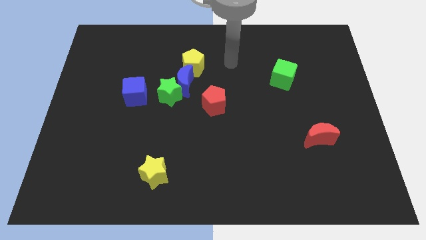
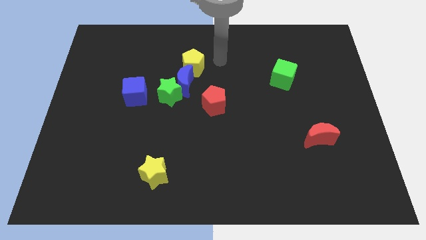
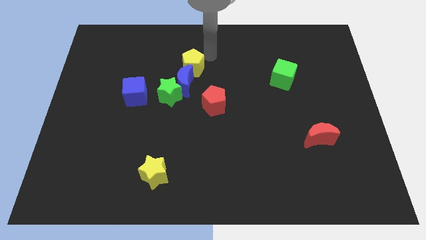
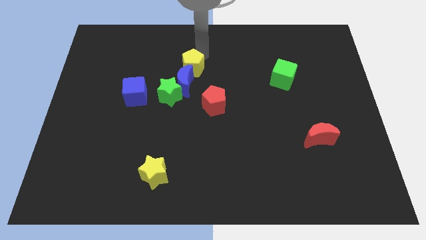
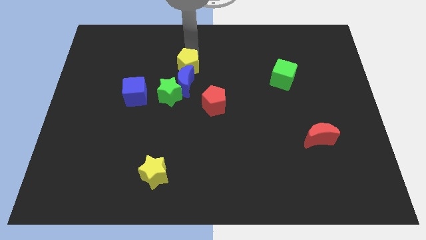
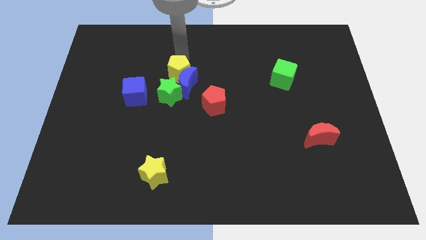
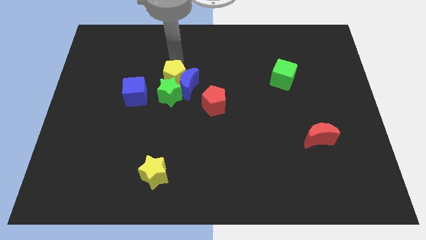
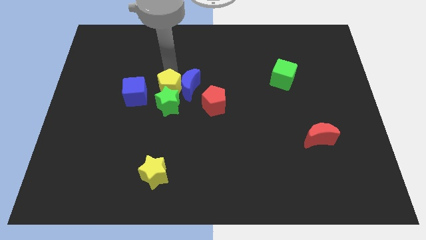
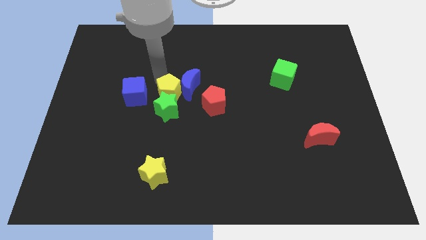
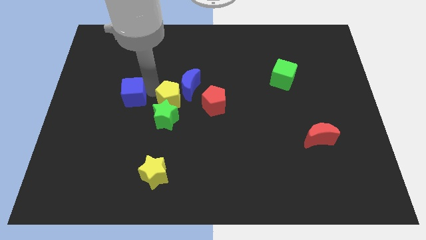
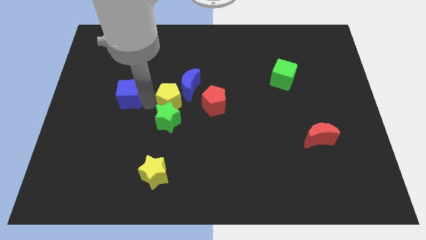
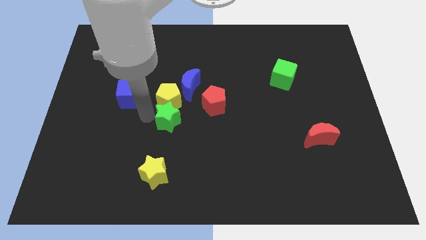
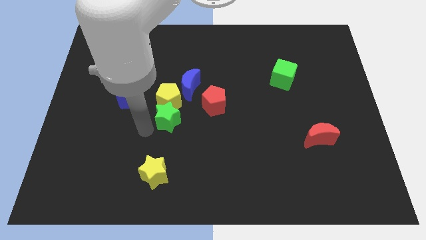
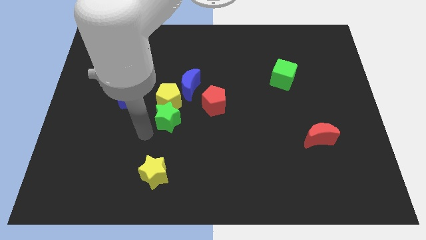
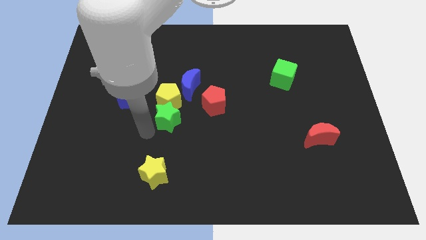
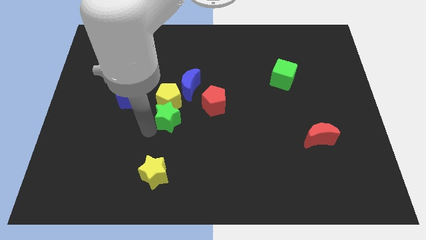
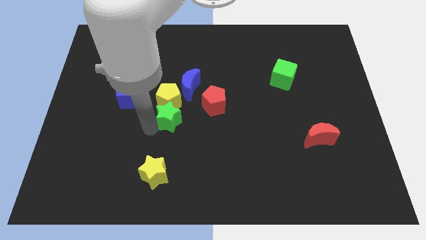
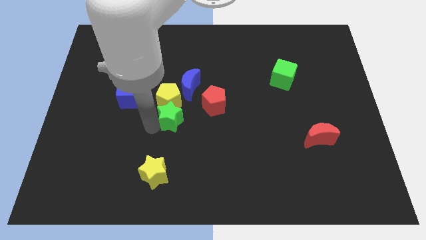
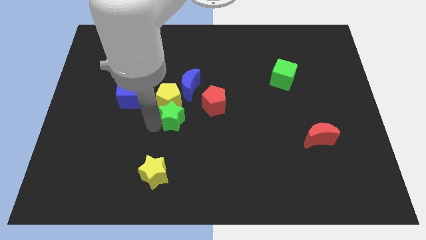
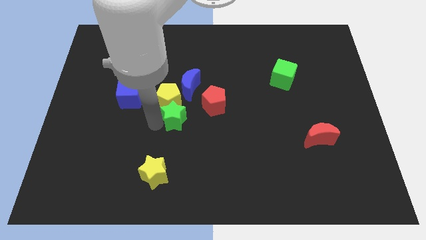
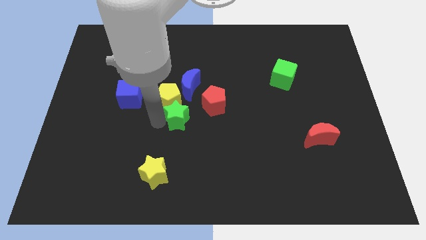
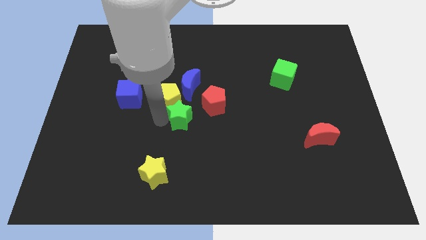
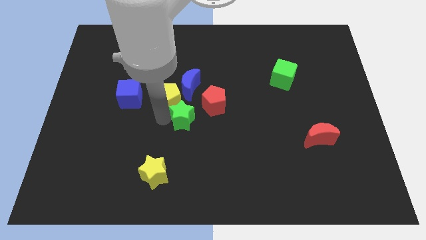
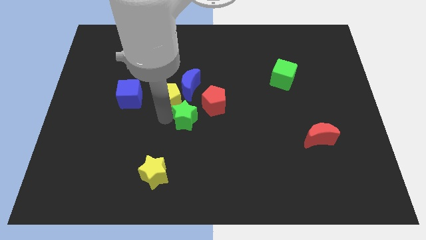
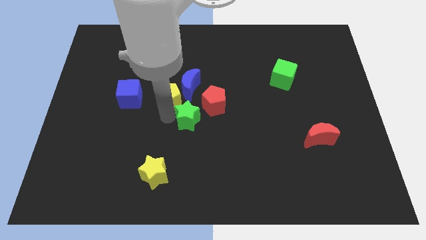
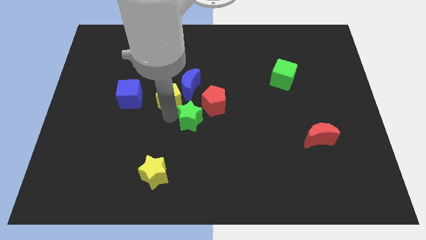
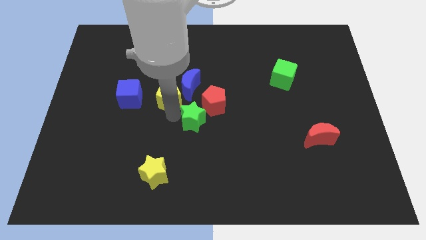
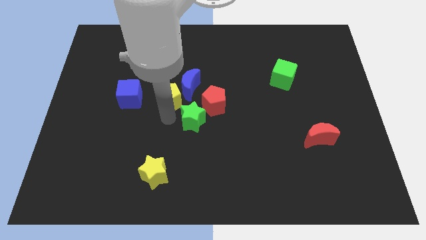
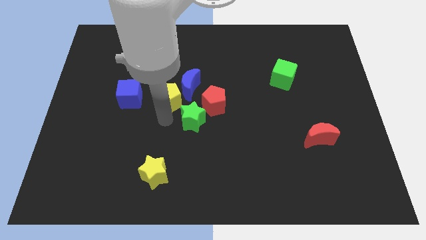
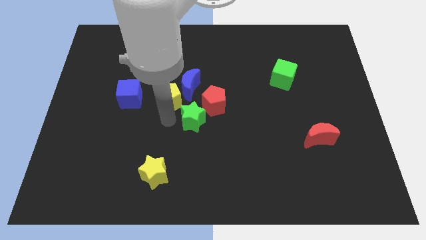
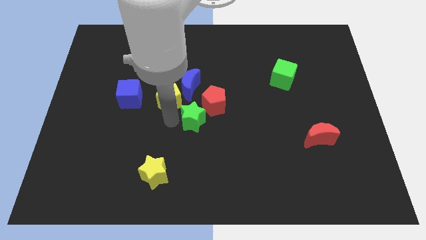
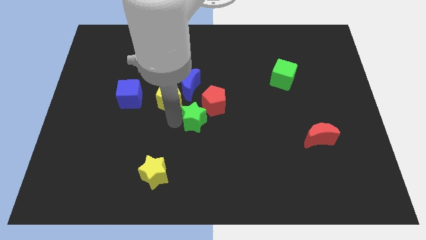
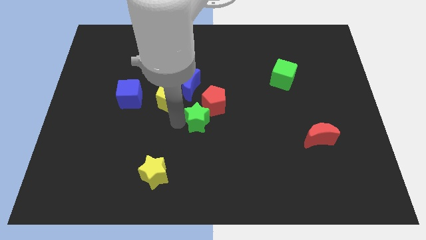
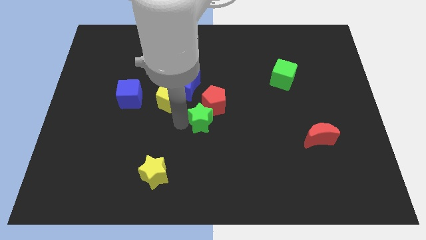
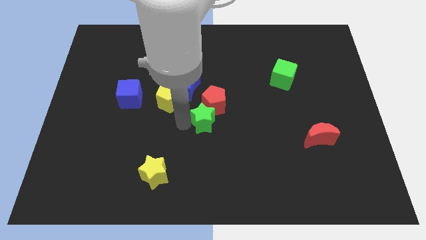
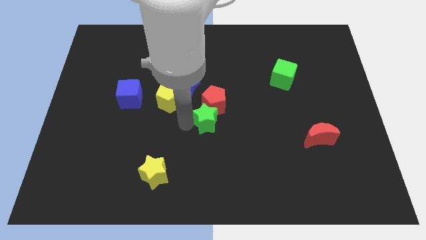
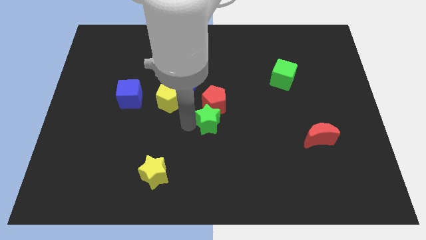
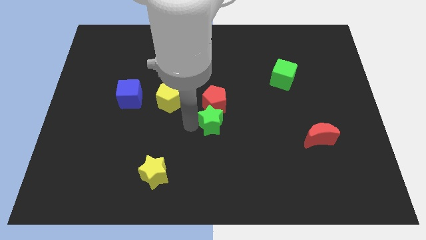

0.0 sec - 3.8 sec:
slightly push the green star right

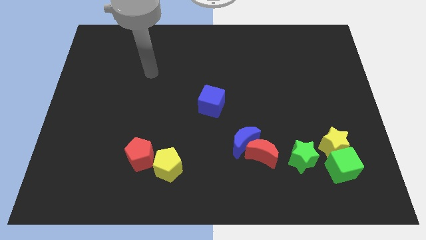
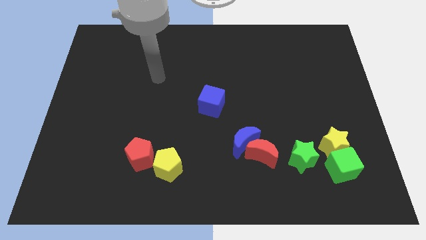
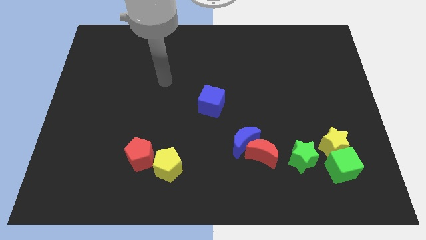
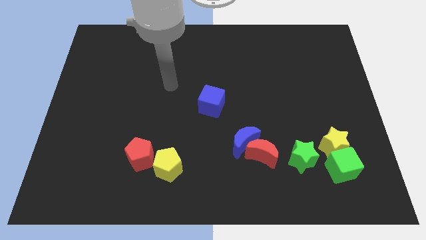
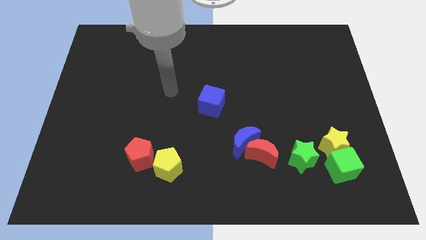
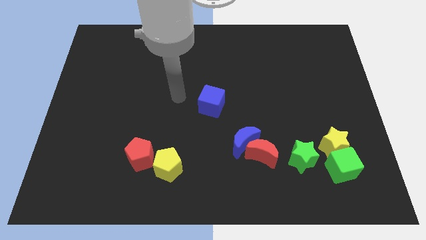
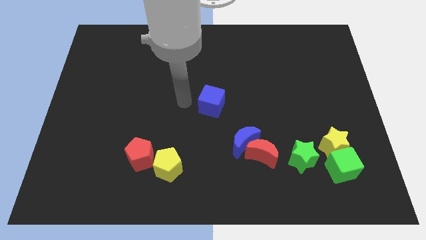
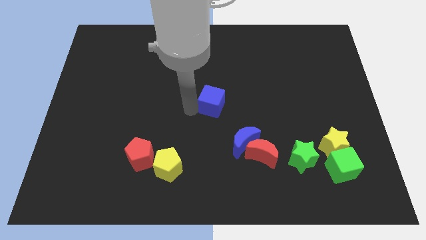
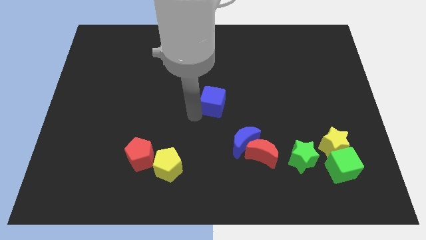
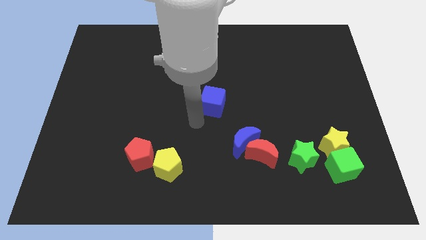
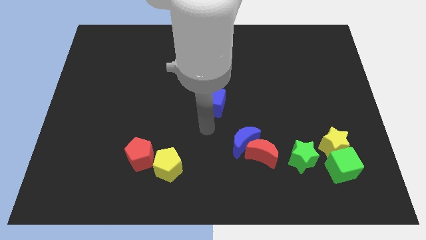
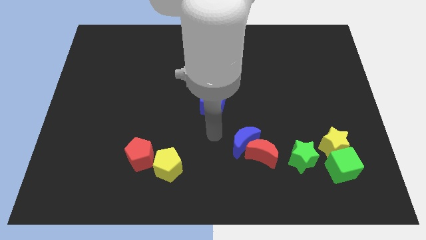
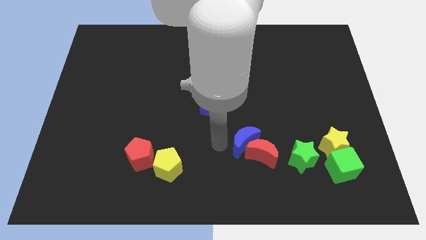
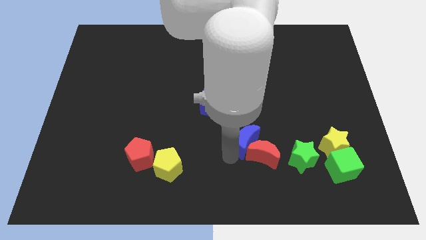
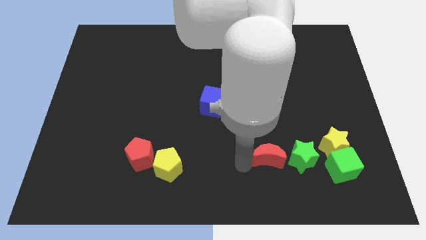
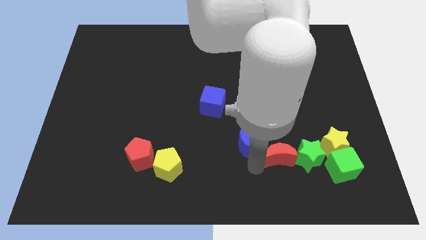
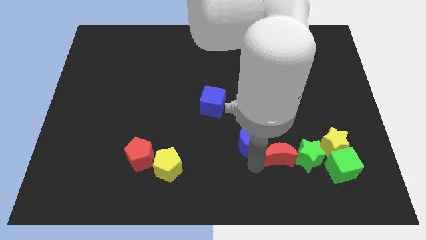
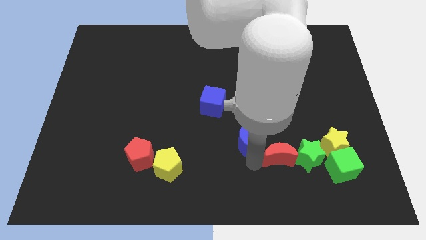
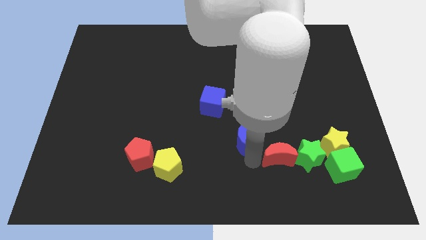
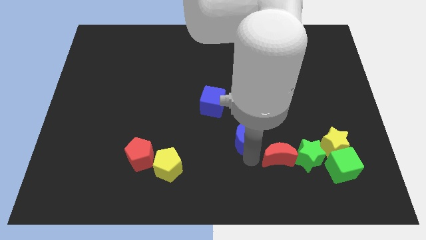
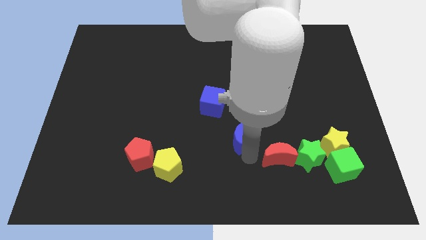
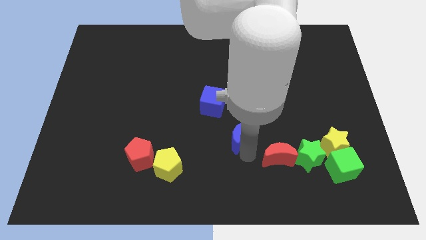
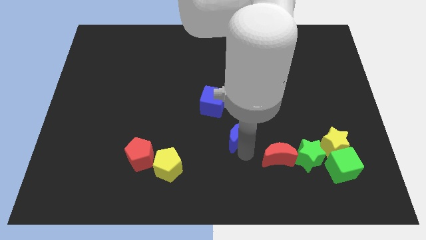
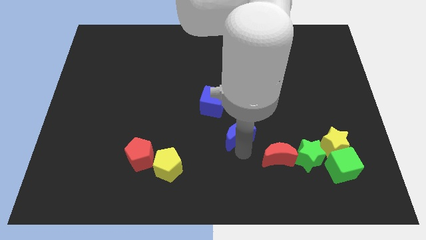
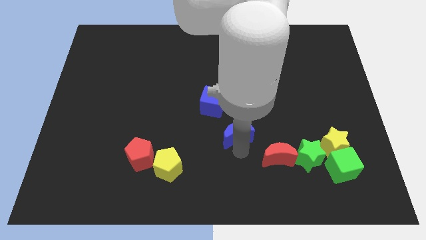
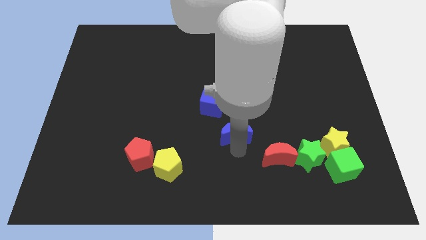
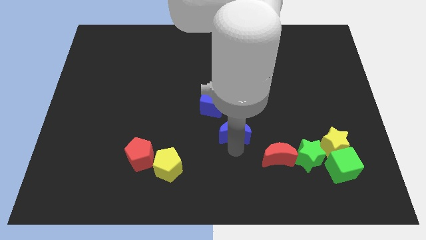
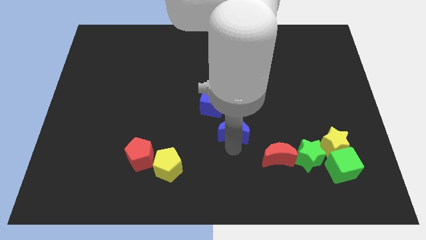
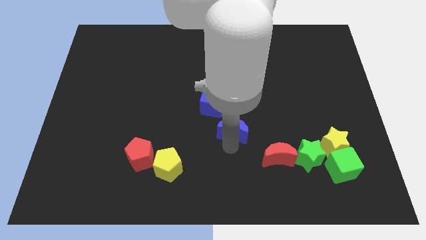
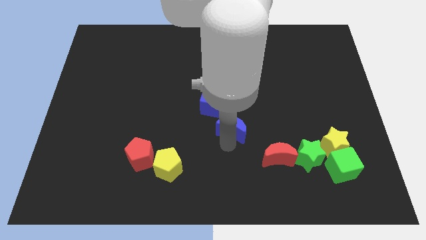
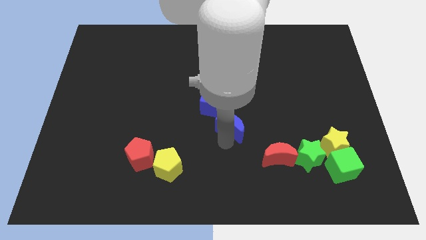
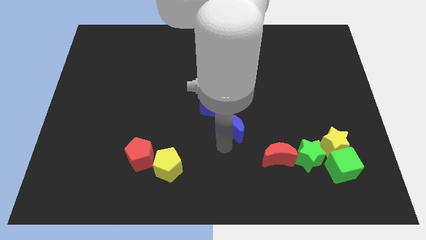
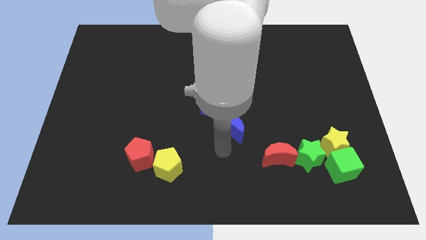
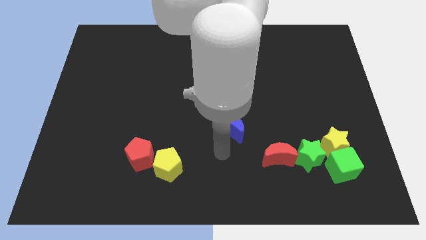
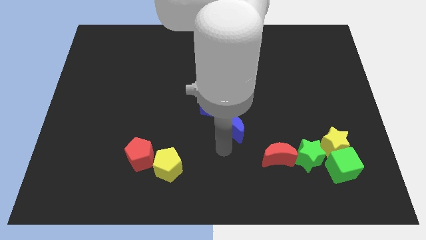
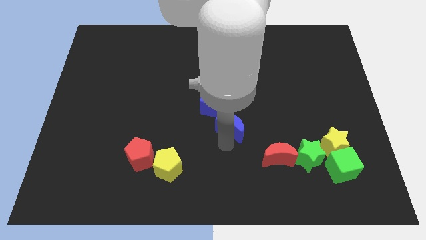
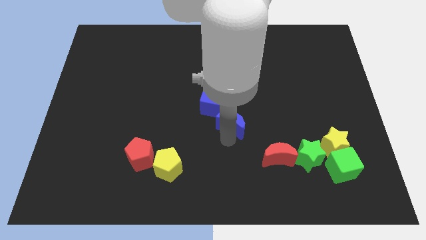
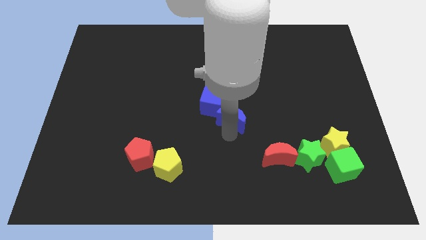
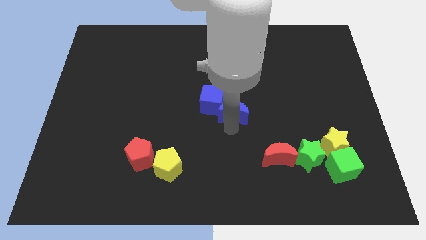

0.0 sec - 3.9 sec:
slide the blue moon up somewhat

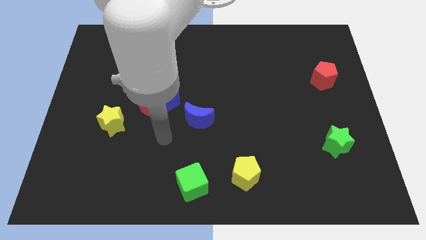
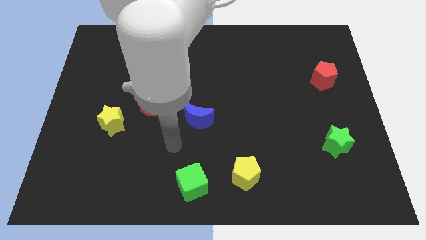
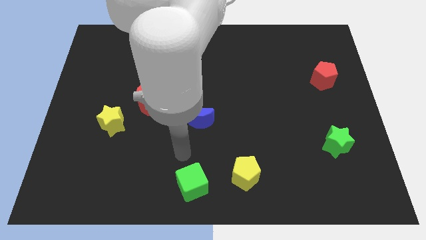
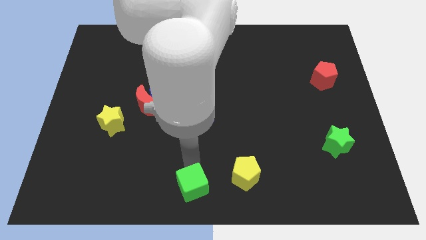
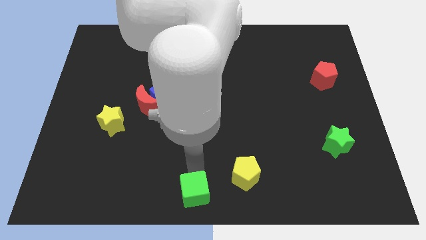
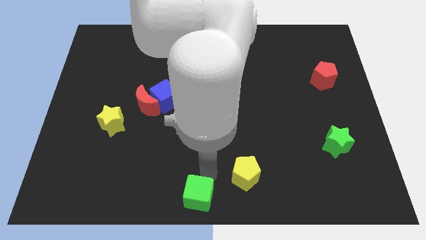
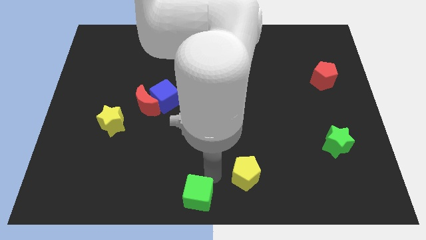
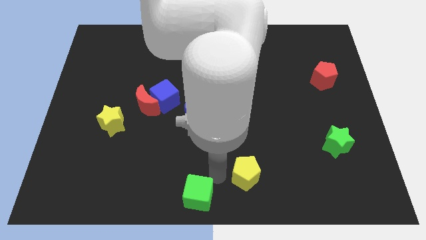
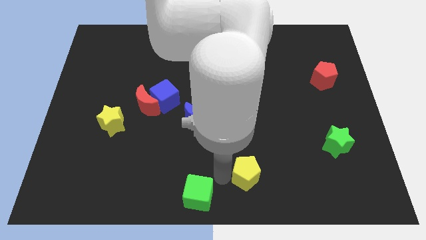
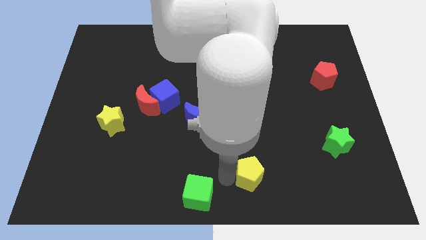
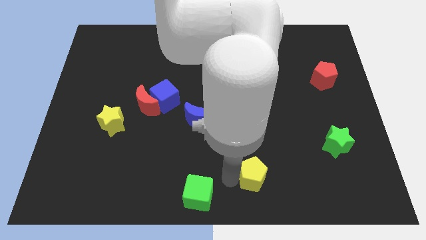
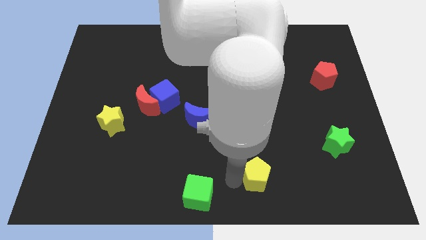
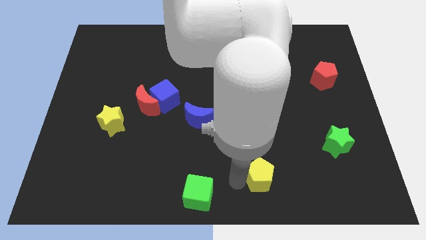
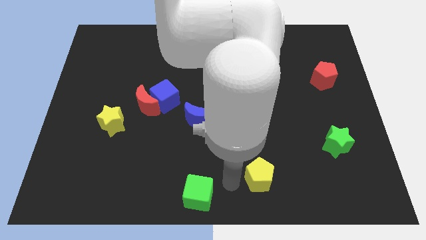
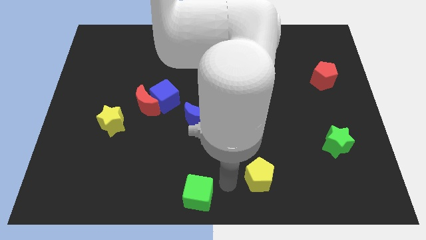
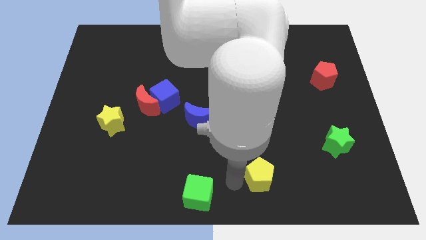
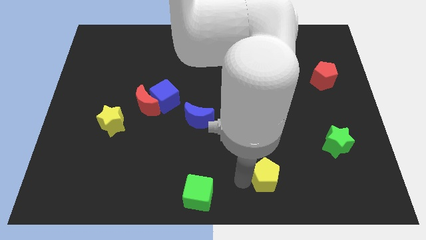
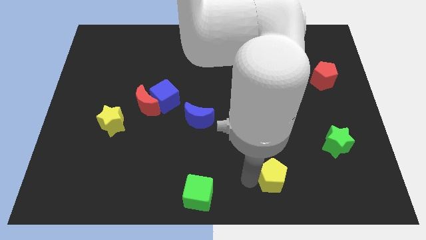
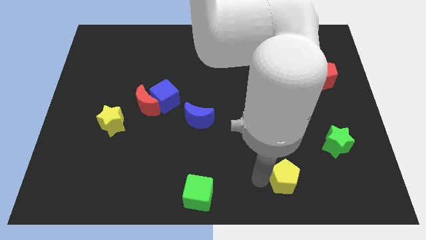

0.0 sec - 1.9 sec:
move the yellow pentagon somewhat right
